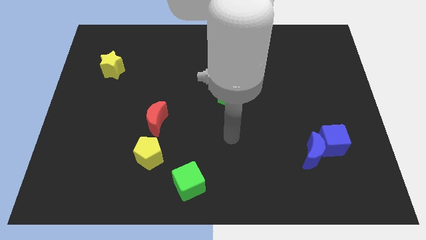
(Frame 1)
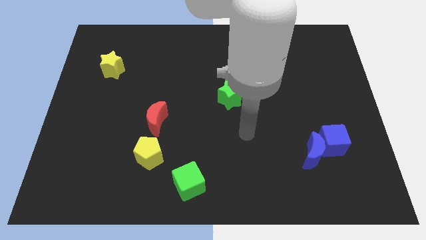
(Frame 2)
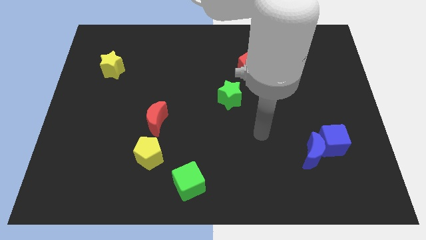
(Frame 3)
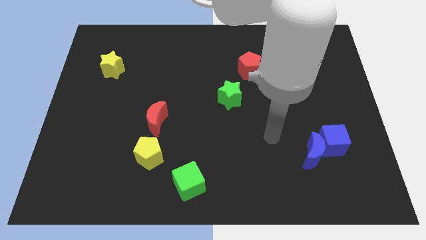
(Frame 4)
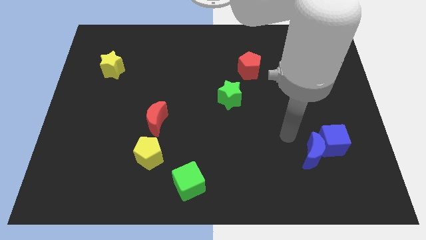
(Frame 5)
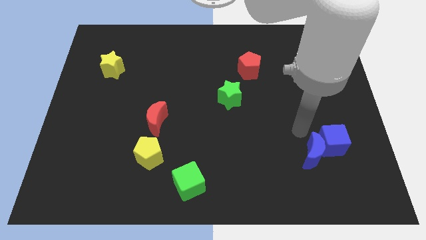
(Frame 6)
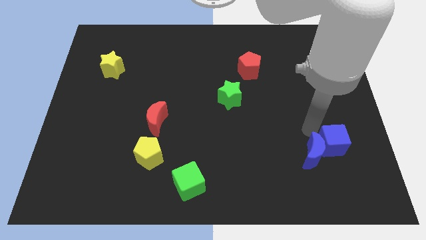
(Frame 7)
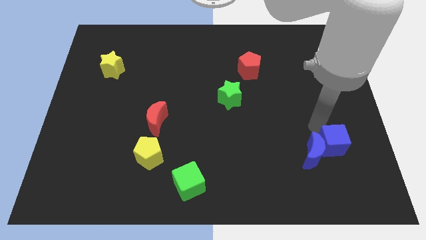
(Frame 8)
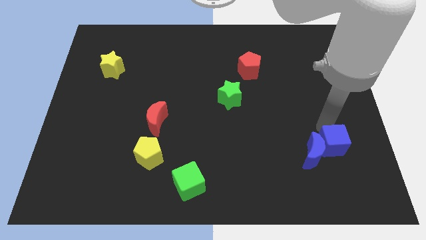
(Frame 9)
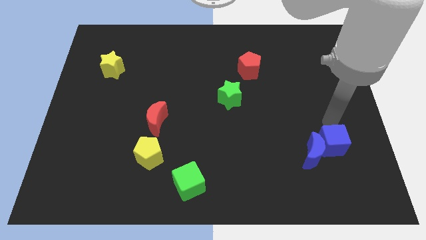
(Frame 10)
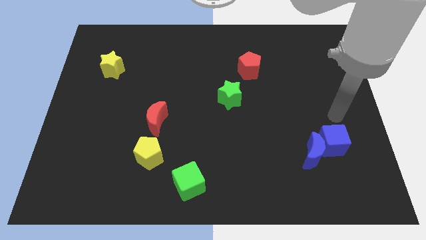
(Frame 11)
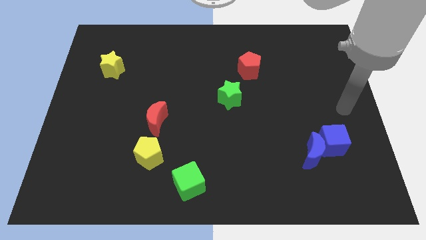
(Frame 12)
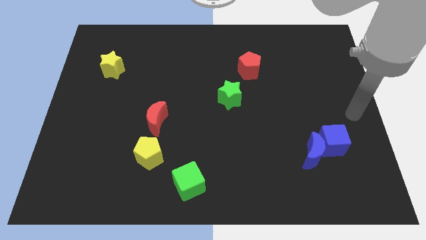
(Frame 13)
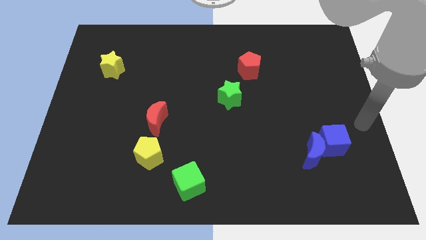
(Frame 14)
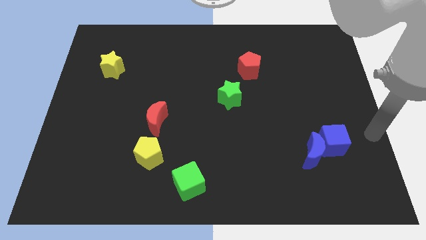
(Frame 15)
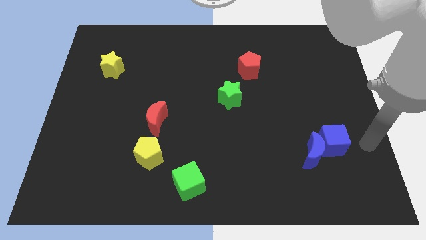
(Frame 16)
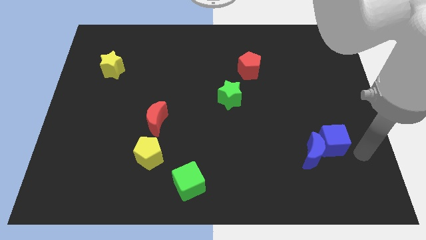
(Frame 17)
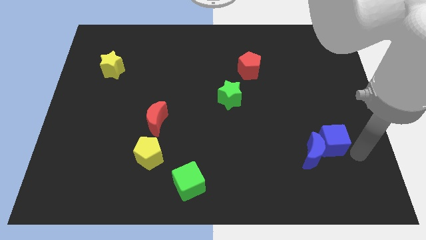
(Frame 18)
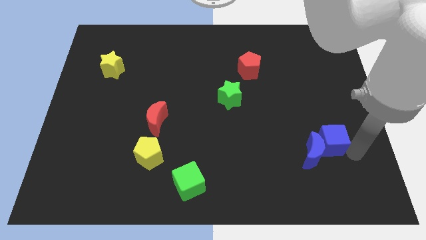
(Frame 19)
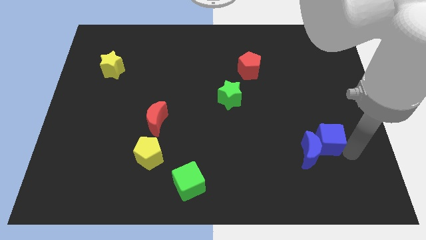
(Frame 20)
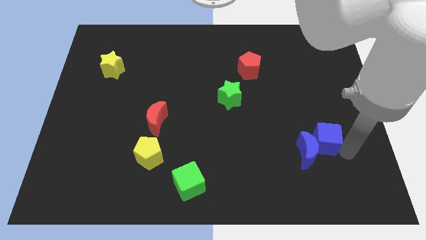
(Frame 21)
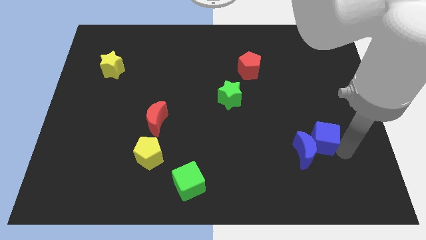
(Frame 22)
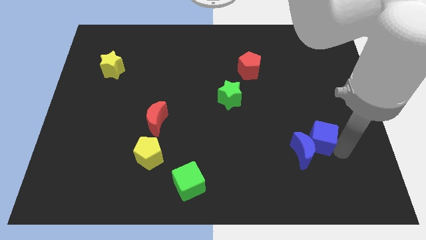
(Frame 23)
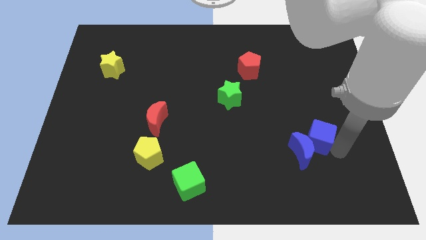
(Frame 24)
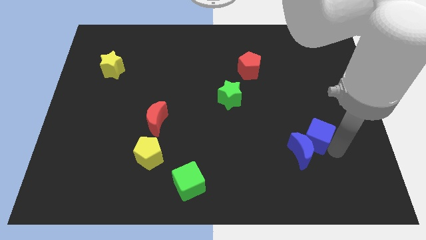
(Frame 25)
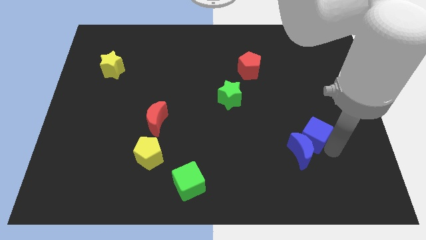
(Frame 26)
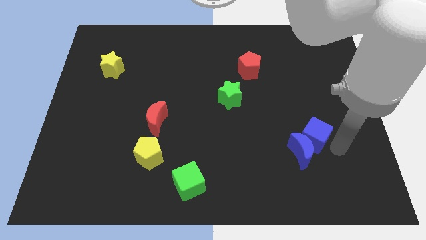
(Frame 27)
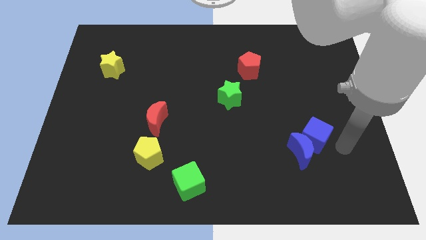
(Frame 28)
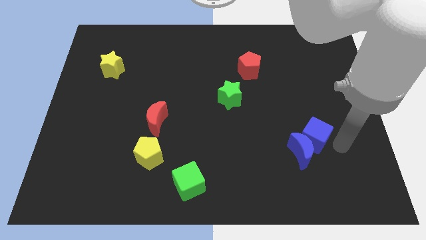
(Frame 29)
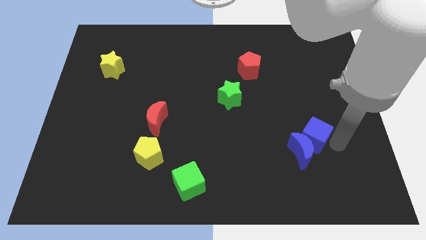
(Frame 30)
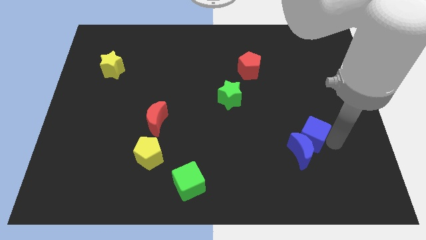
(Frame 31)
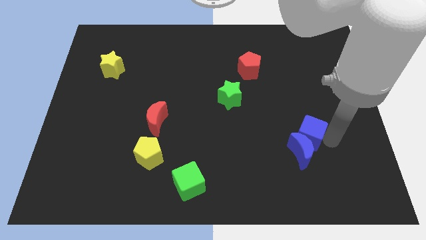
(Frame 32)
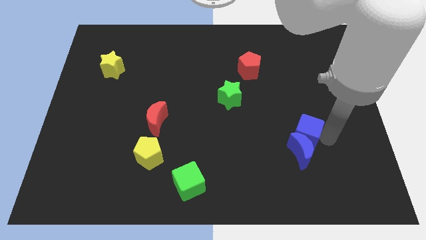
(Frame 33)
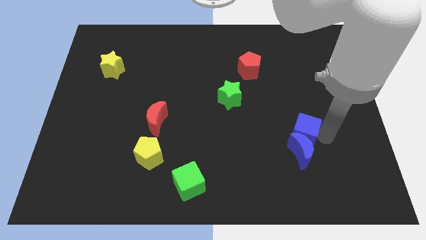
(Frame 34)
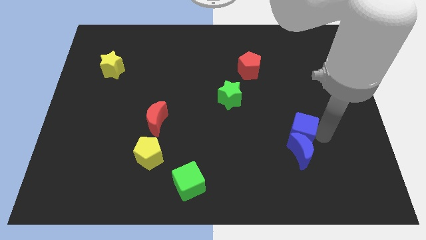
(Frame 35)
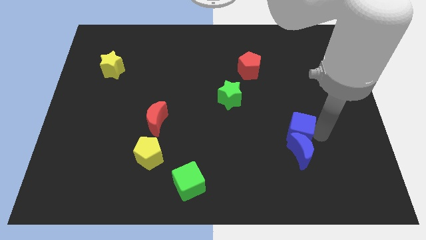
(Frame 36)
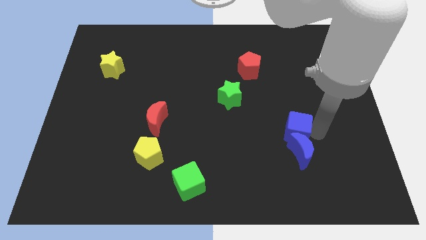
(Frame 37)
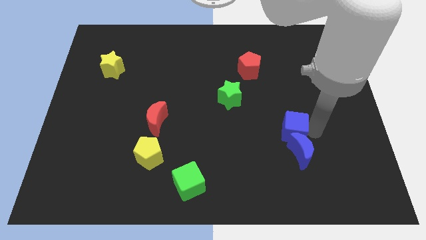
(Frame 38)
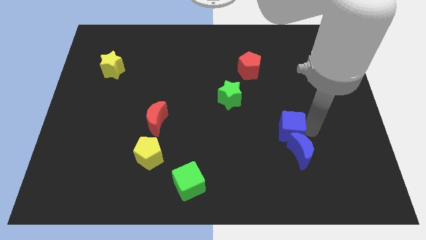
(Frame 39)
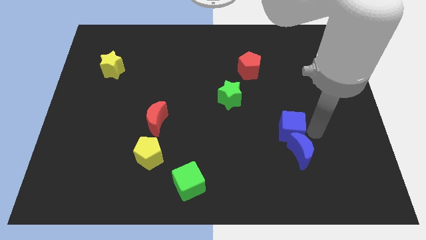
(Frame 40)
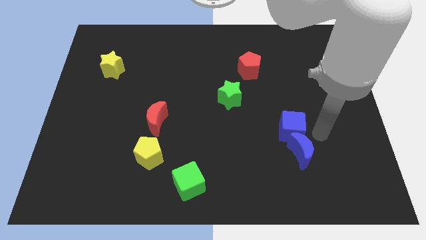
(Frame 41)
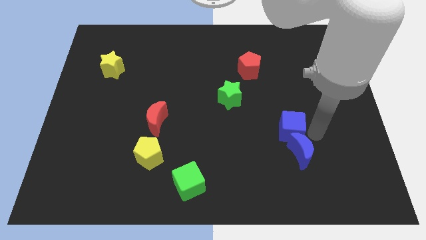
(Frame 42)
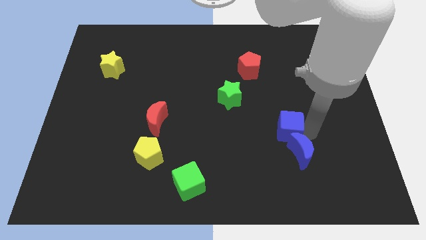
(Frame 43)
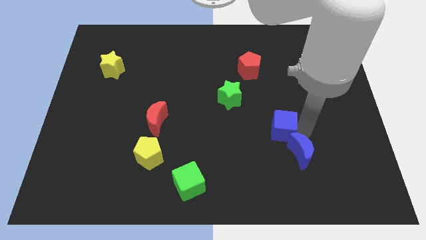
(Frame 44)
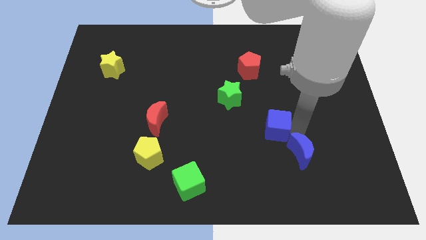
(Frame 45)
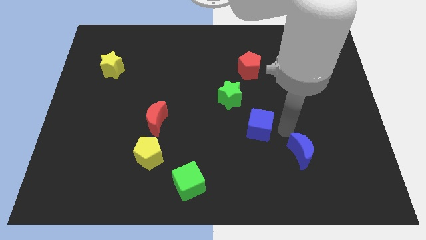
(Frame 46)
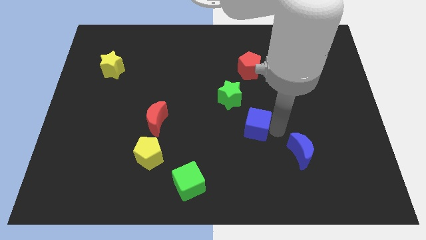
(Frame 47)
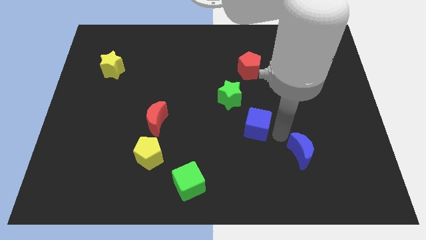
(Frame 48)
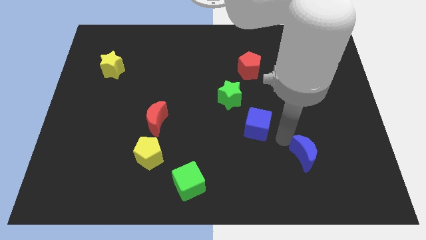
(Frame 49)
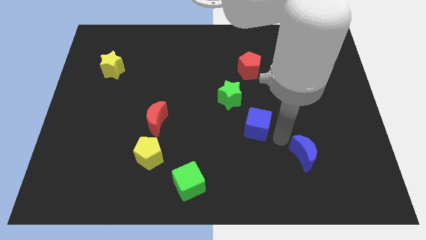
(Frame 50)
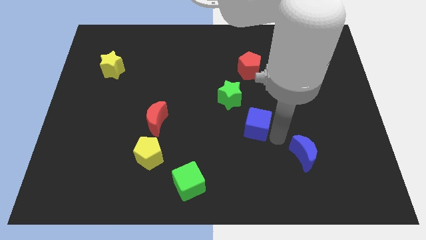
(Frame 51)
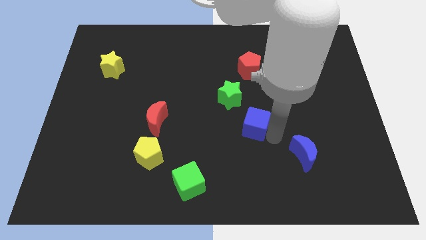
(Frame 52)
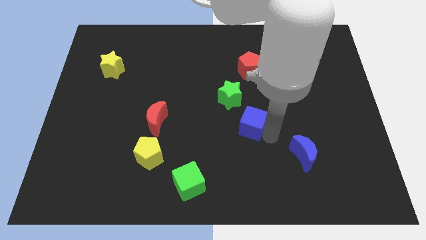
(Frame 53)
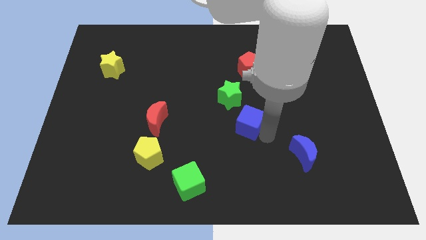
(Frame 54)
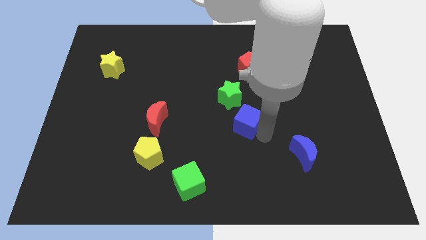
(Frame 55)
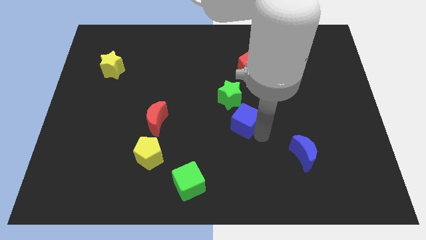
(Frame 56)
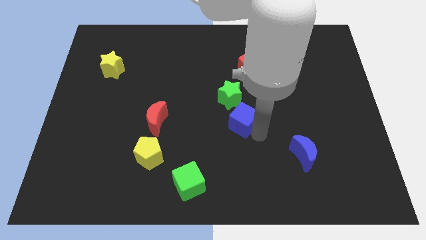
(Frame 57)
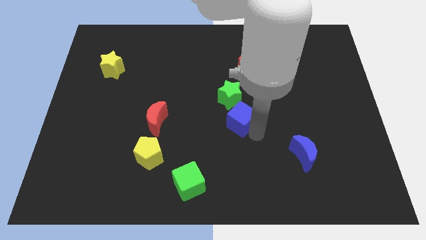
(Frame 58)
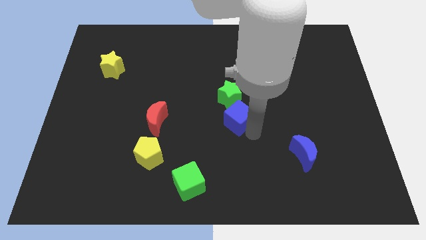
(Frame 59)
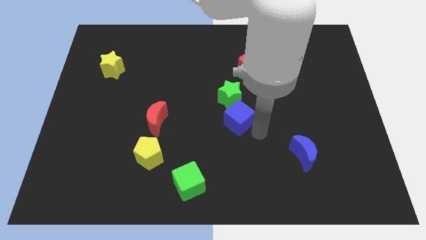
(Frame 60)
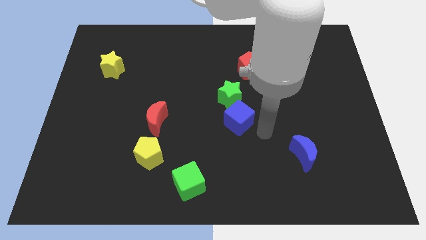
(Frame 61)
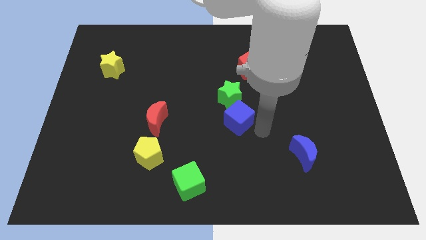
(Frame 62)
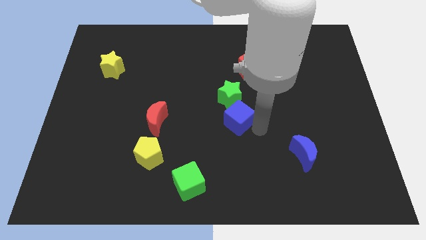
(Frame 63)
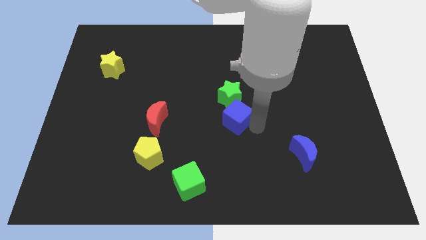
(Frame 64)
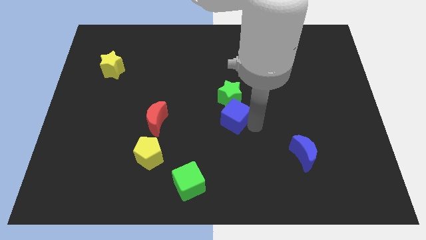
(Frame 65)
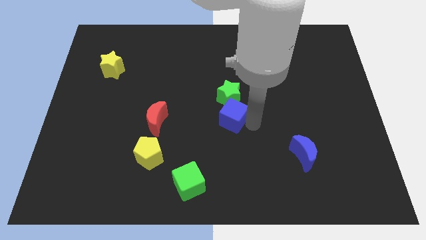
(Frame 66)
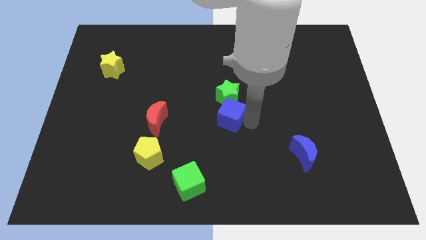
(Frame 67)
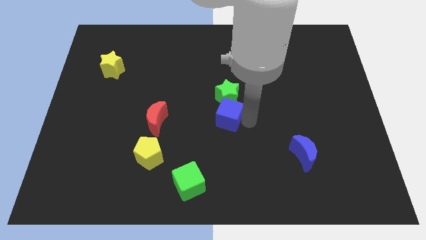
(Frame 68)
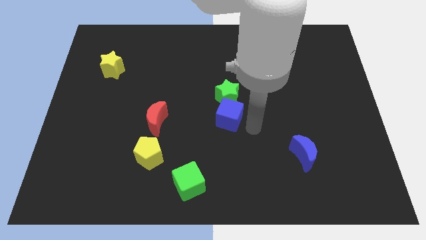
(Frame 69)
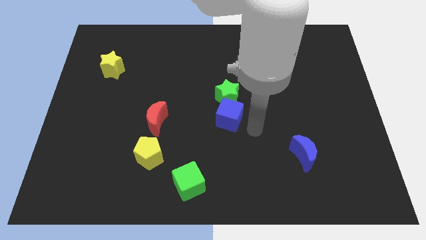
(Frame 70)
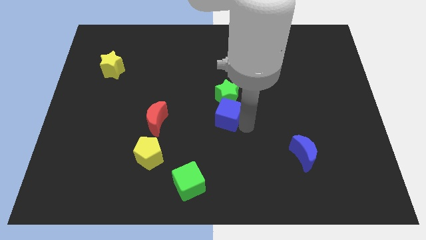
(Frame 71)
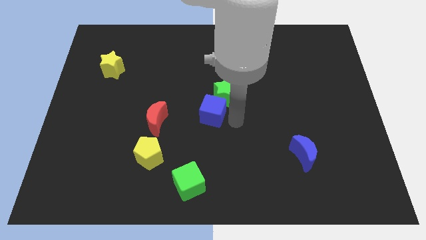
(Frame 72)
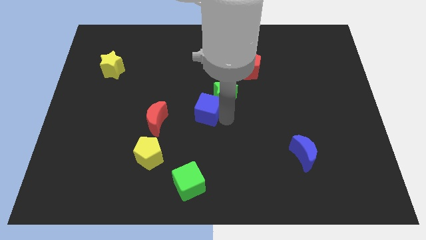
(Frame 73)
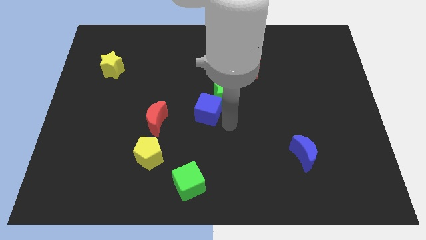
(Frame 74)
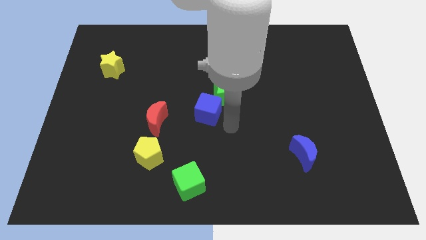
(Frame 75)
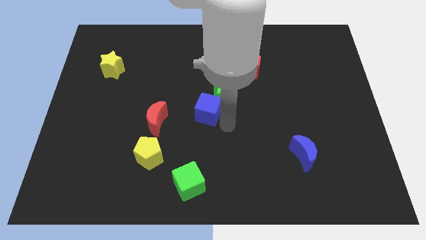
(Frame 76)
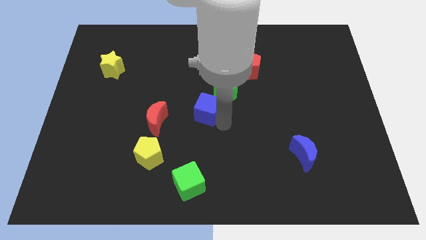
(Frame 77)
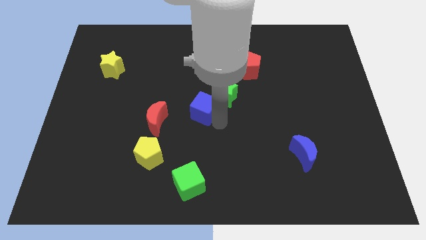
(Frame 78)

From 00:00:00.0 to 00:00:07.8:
move the blue cube just left of the green star
